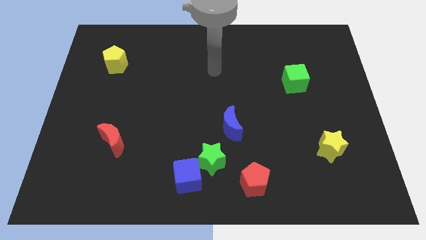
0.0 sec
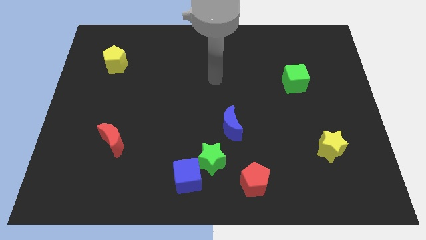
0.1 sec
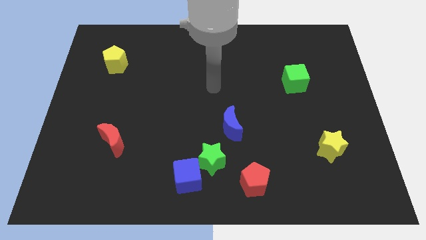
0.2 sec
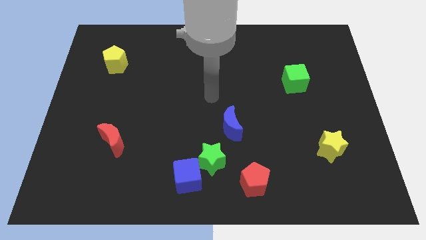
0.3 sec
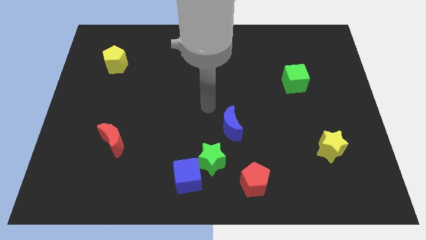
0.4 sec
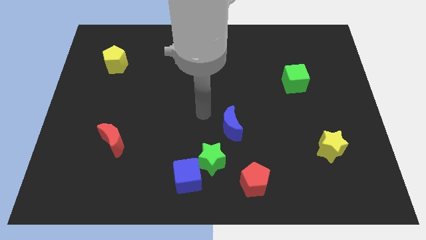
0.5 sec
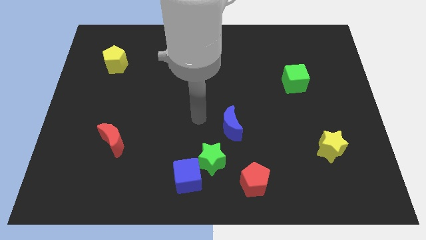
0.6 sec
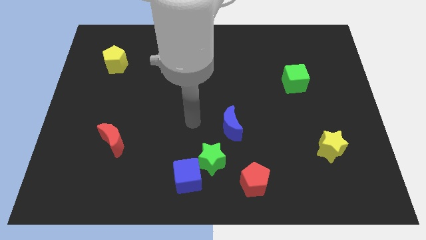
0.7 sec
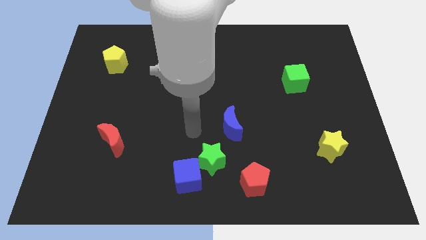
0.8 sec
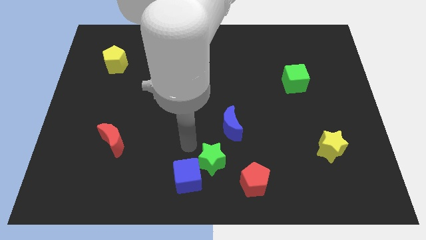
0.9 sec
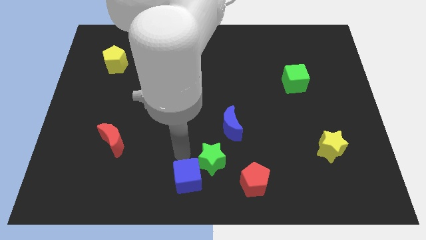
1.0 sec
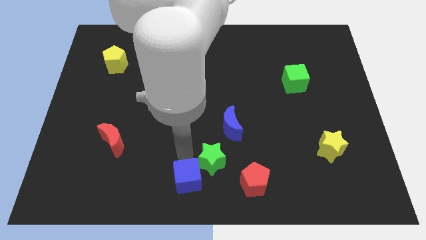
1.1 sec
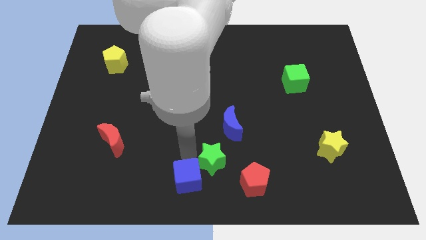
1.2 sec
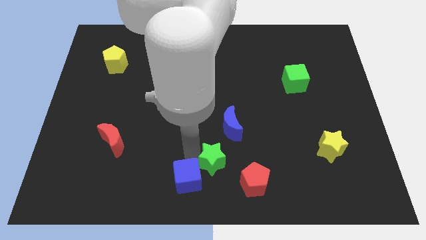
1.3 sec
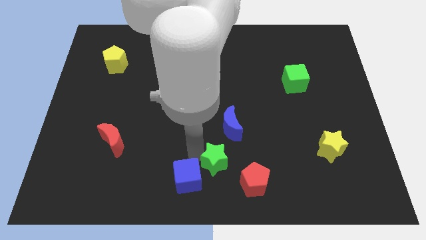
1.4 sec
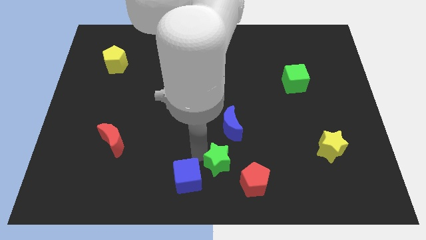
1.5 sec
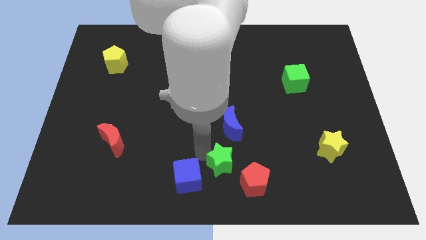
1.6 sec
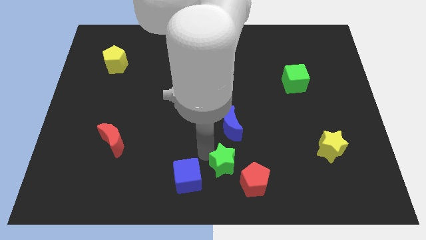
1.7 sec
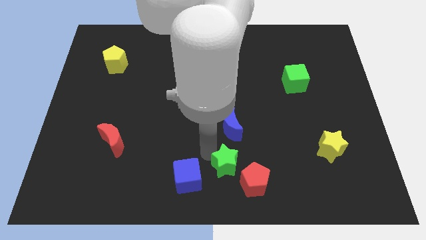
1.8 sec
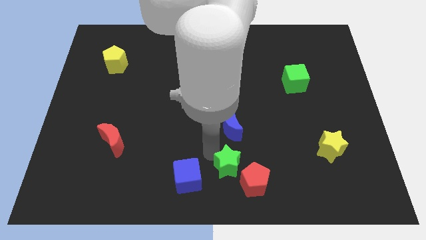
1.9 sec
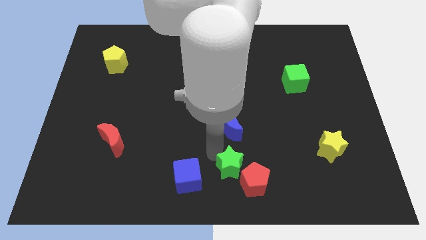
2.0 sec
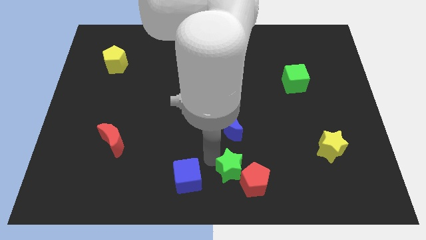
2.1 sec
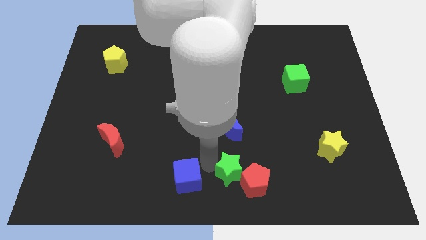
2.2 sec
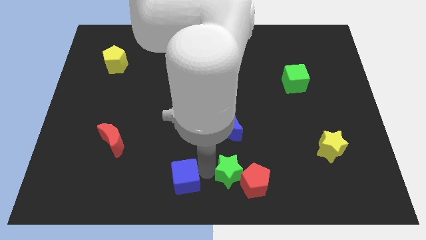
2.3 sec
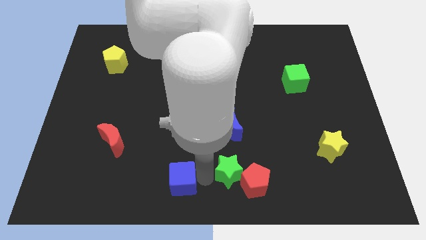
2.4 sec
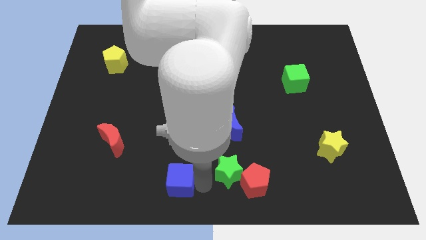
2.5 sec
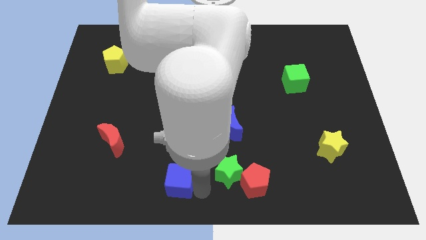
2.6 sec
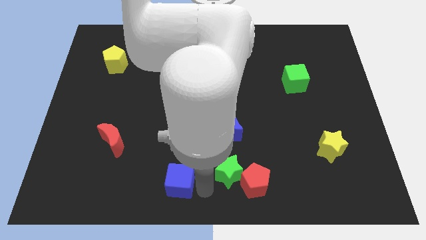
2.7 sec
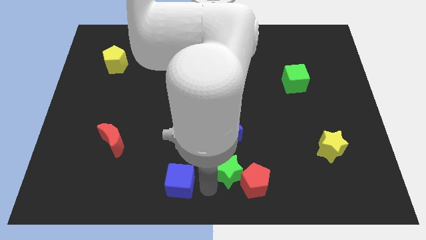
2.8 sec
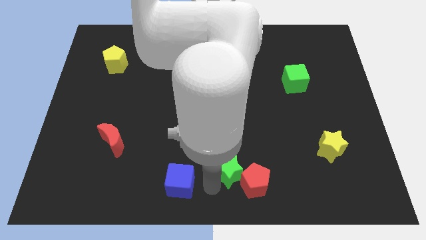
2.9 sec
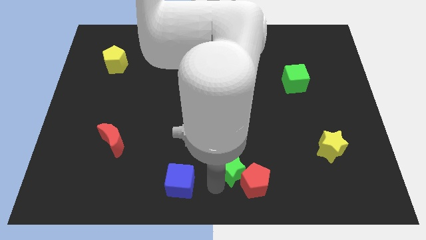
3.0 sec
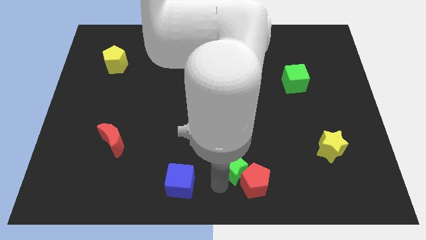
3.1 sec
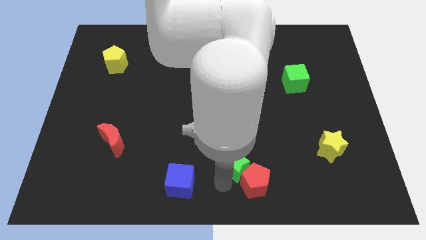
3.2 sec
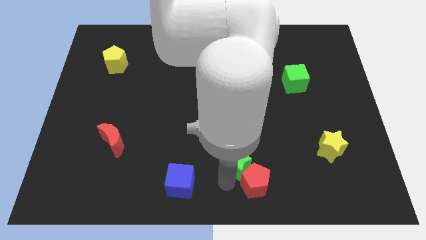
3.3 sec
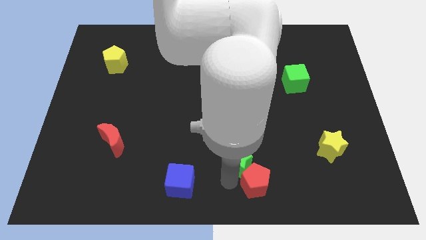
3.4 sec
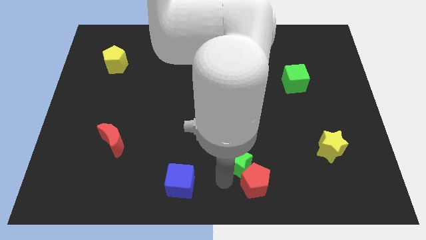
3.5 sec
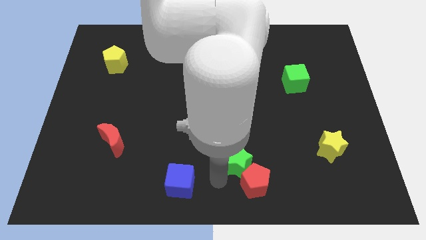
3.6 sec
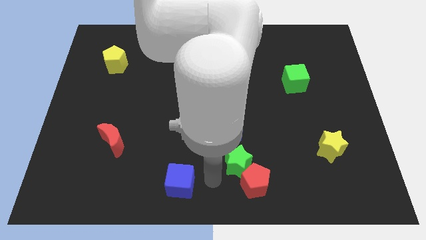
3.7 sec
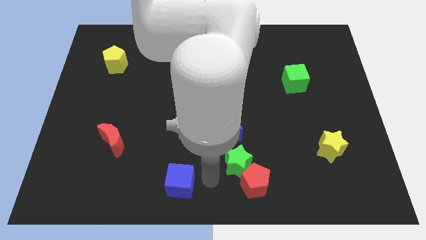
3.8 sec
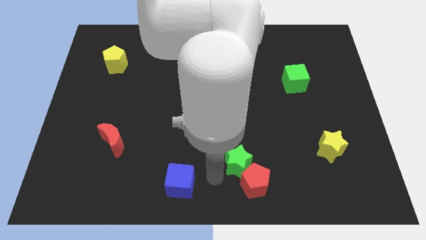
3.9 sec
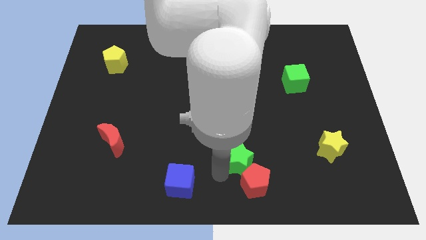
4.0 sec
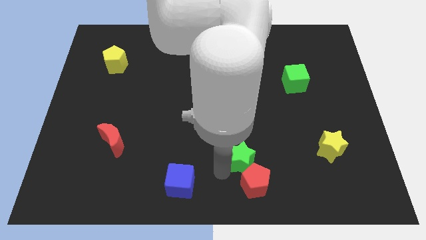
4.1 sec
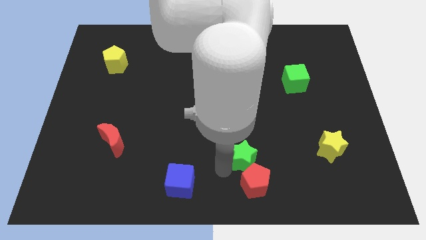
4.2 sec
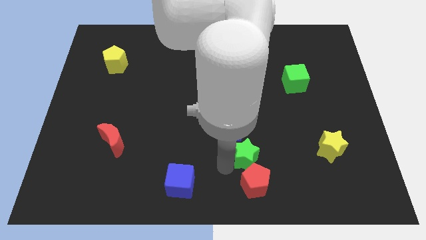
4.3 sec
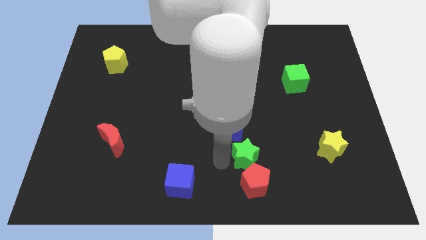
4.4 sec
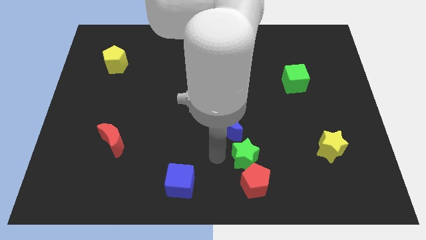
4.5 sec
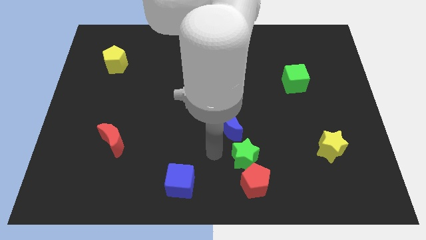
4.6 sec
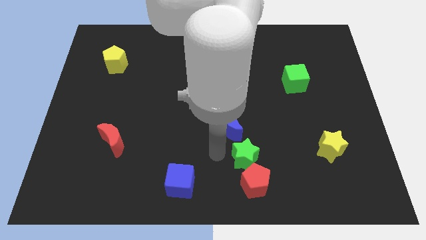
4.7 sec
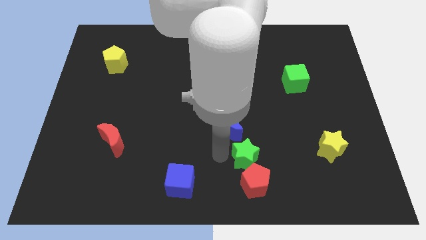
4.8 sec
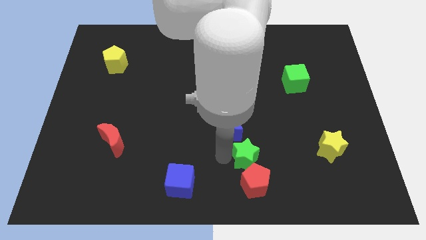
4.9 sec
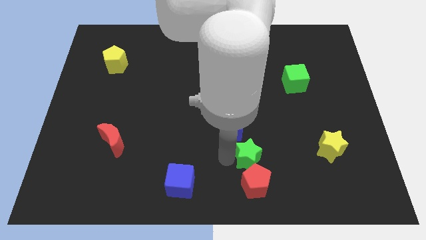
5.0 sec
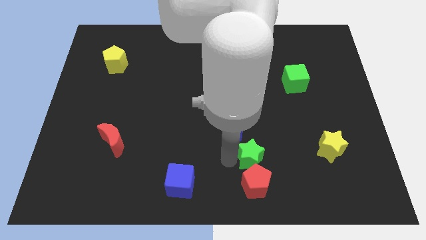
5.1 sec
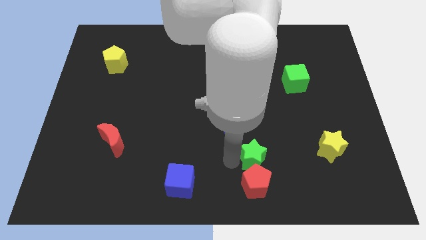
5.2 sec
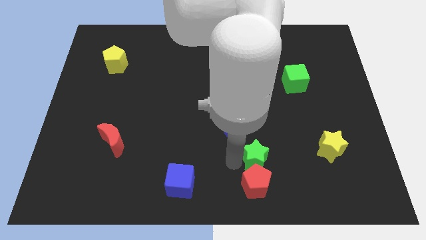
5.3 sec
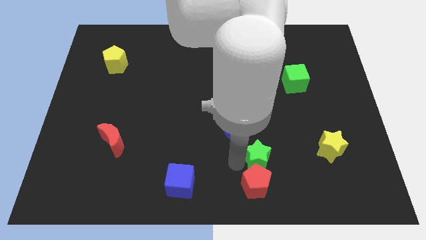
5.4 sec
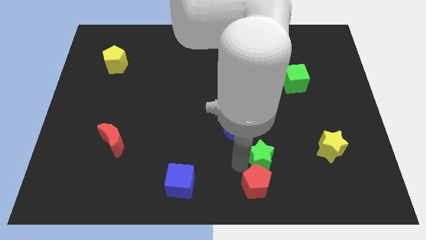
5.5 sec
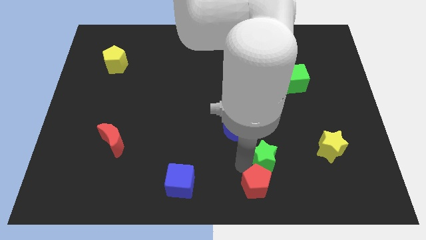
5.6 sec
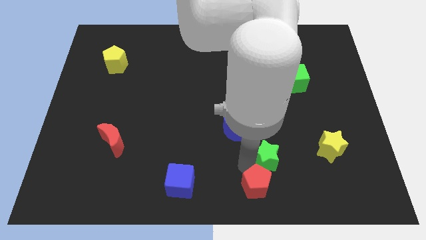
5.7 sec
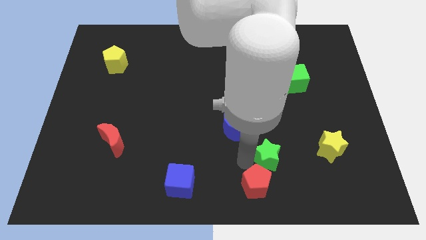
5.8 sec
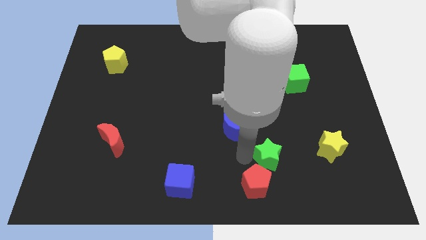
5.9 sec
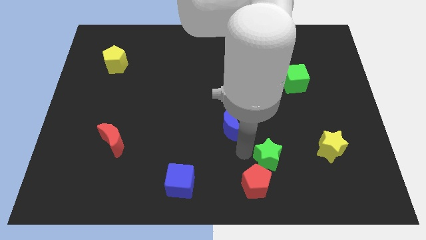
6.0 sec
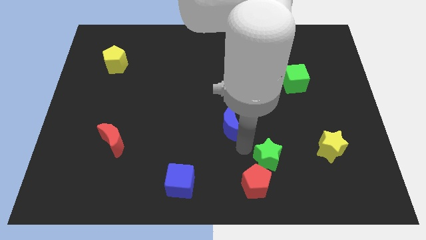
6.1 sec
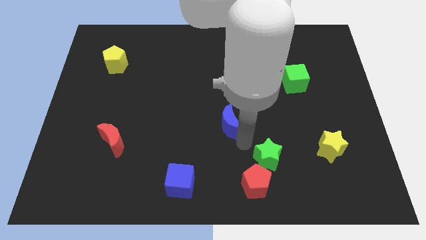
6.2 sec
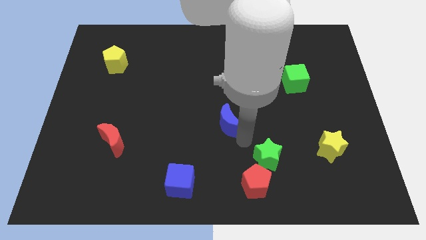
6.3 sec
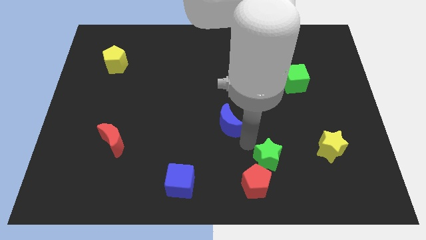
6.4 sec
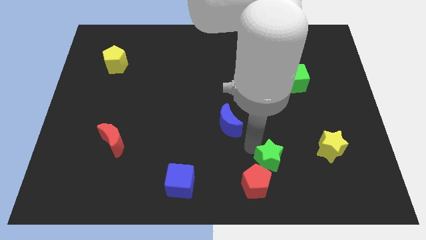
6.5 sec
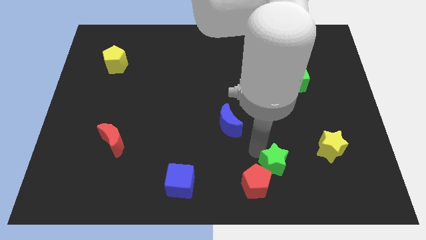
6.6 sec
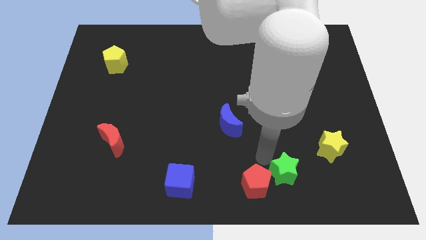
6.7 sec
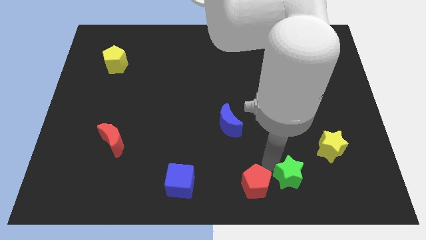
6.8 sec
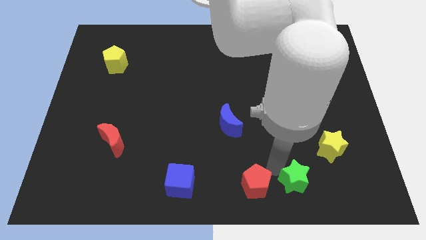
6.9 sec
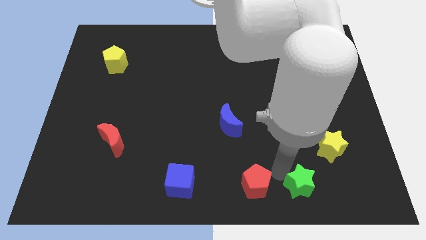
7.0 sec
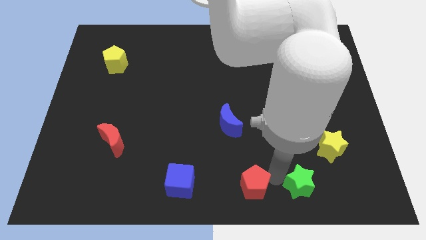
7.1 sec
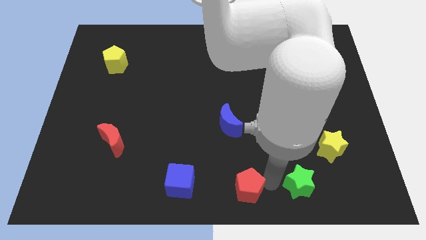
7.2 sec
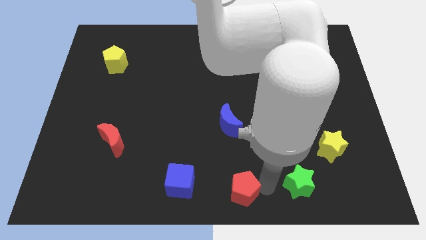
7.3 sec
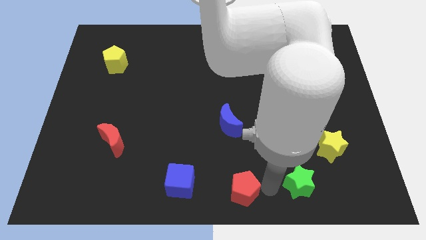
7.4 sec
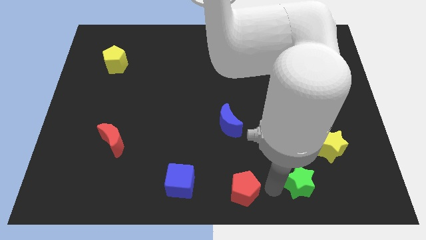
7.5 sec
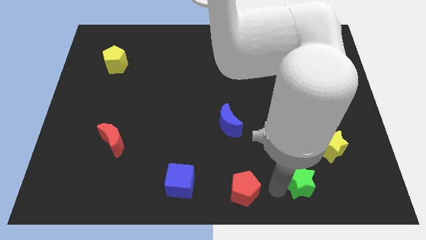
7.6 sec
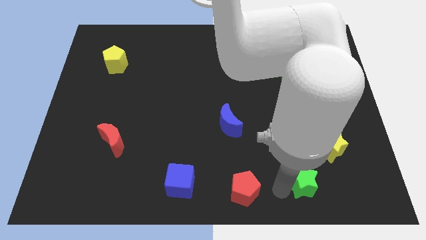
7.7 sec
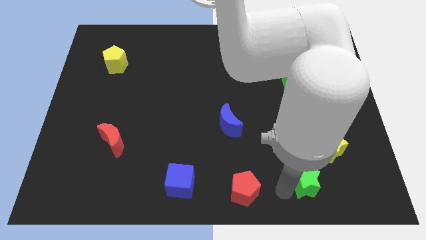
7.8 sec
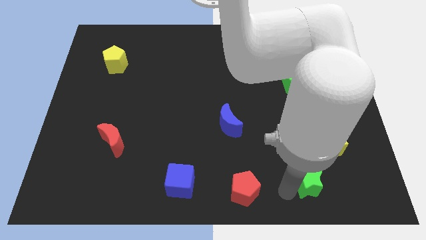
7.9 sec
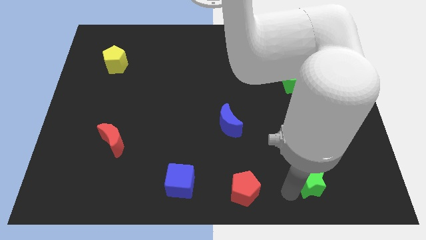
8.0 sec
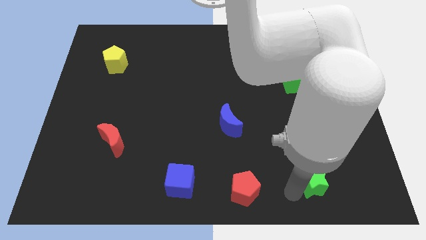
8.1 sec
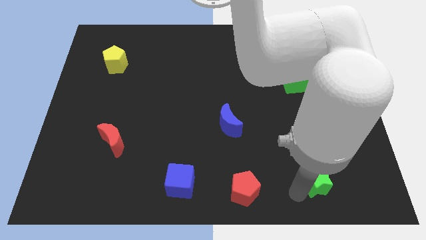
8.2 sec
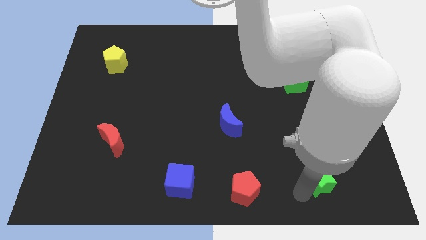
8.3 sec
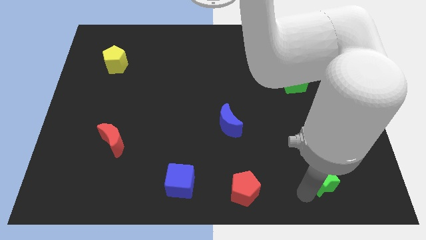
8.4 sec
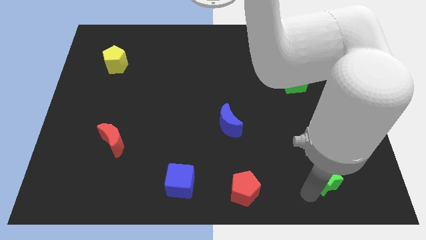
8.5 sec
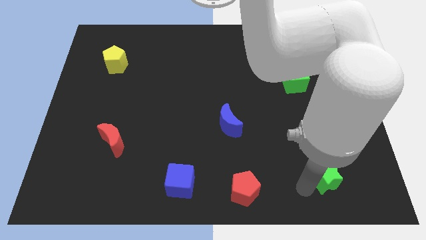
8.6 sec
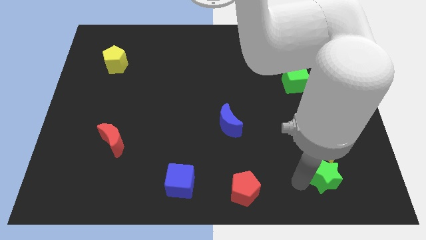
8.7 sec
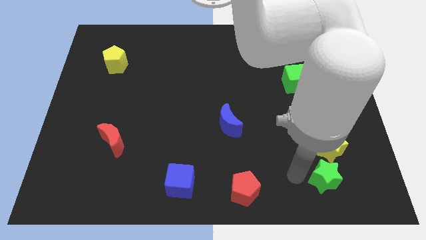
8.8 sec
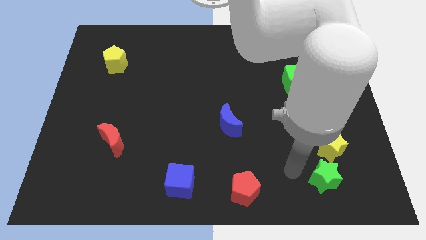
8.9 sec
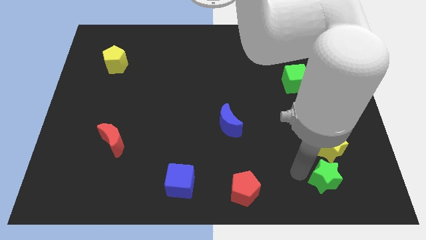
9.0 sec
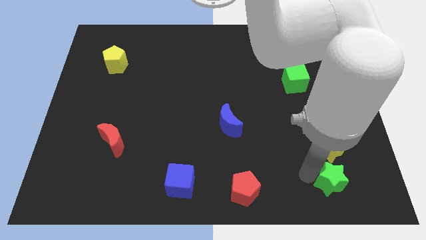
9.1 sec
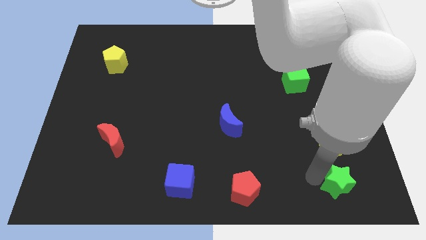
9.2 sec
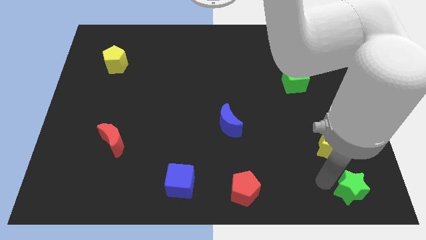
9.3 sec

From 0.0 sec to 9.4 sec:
put the green star to the lower right corner
